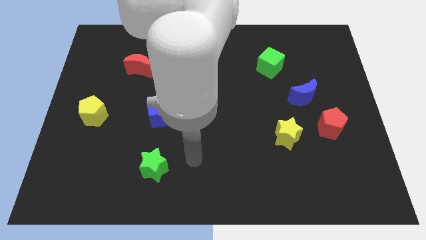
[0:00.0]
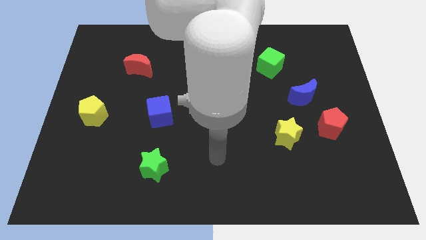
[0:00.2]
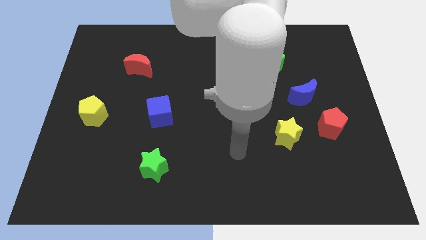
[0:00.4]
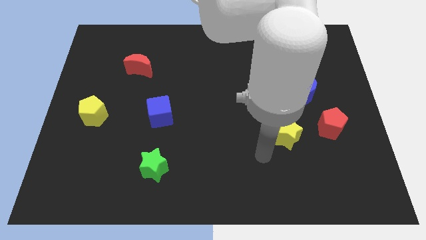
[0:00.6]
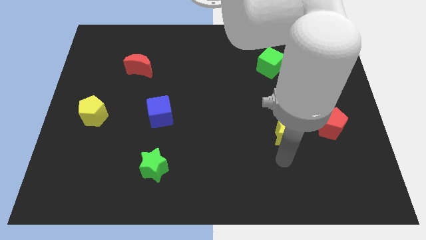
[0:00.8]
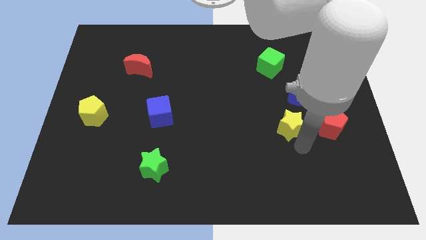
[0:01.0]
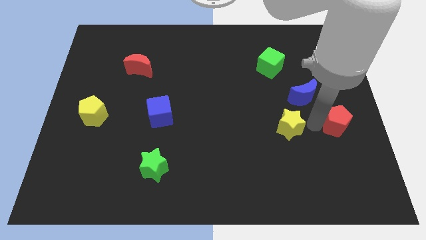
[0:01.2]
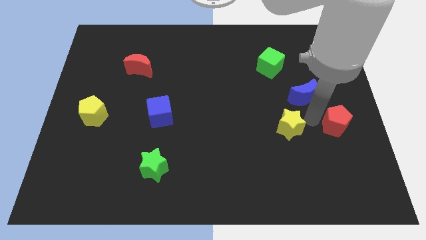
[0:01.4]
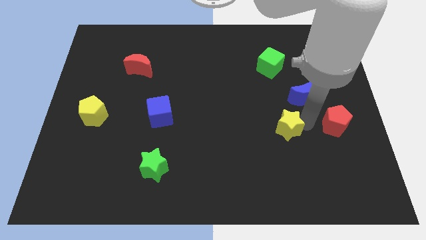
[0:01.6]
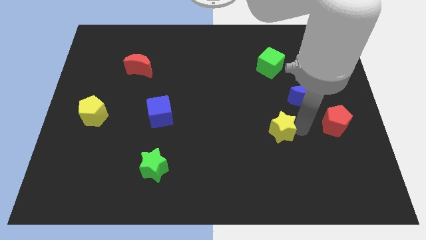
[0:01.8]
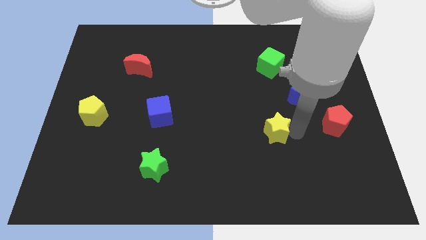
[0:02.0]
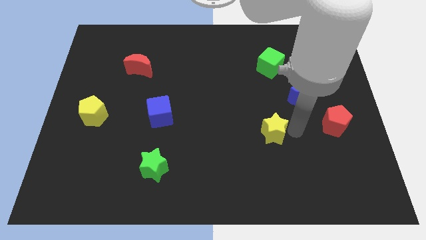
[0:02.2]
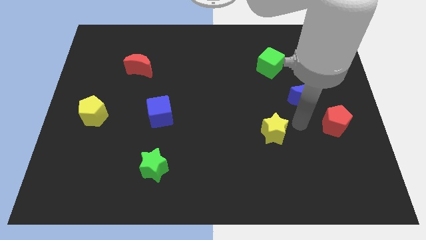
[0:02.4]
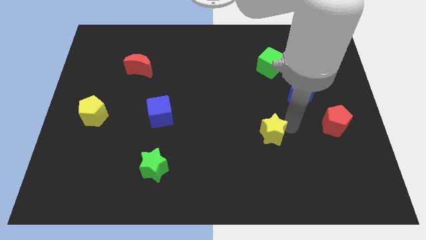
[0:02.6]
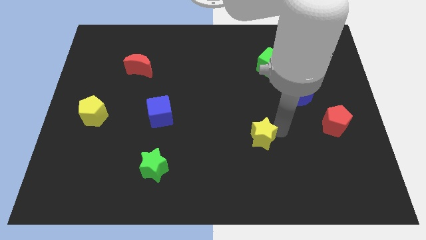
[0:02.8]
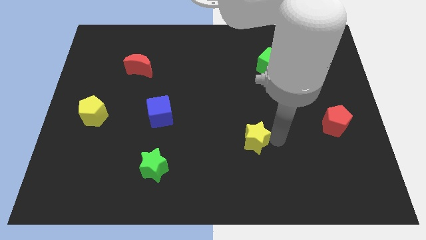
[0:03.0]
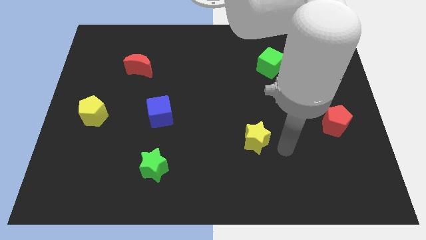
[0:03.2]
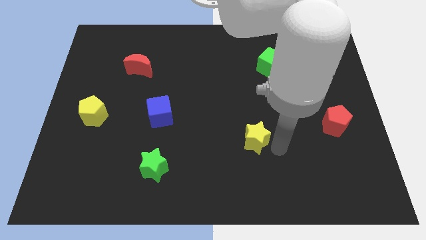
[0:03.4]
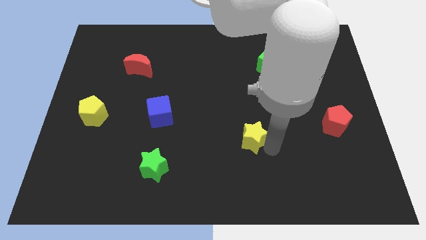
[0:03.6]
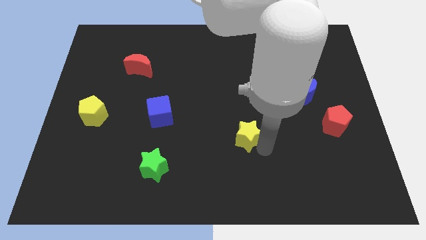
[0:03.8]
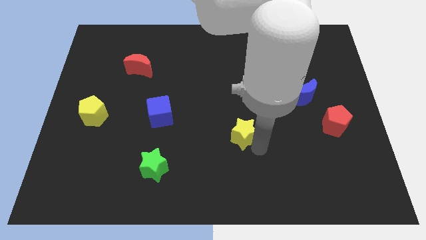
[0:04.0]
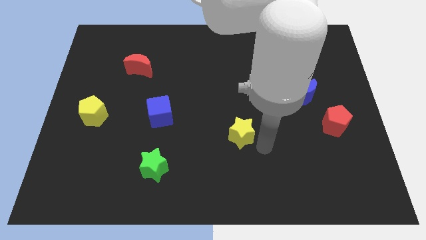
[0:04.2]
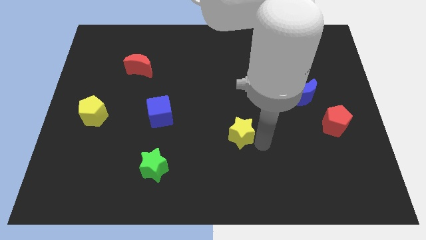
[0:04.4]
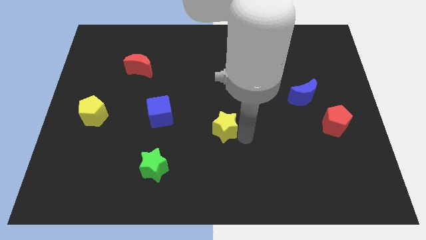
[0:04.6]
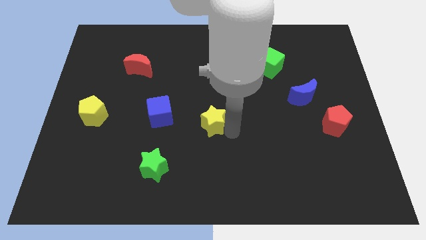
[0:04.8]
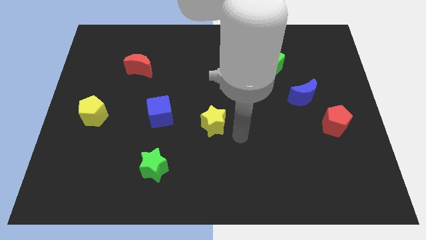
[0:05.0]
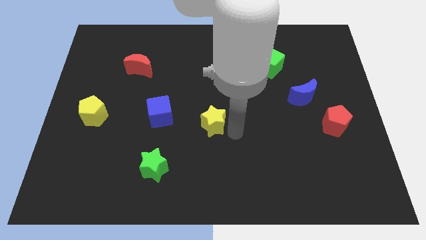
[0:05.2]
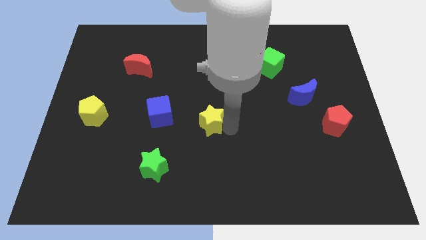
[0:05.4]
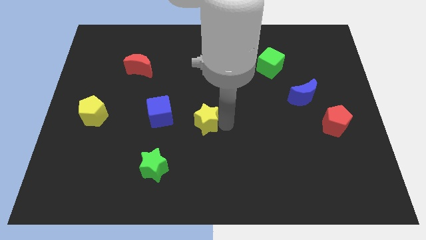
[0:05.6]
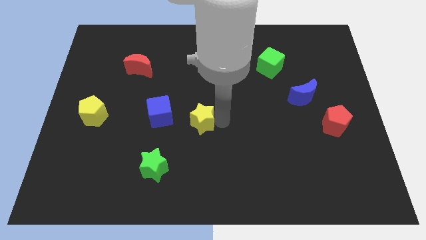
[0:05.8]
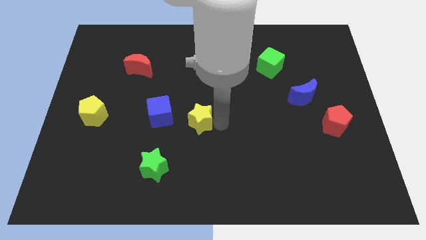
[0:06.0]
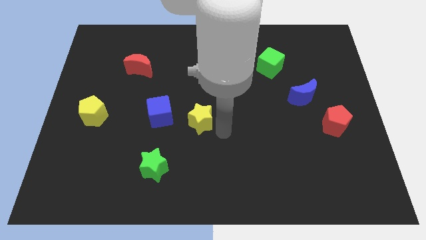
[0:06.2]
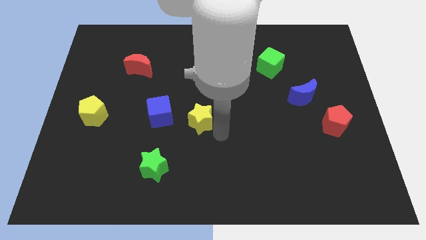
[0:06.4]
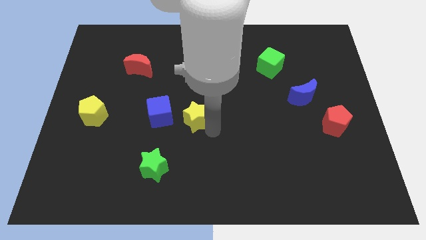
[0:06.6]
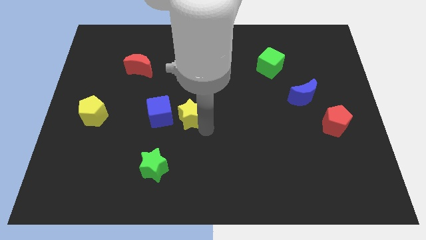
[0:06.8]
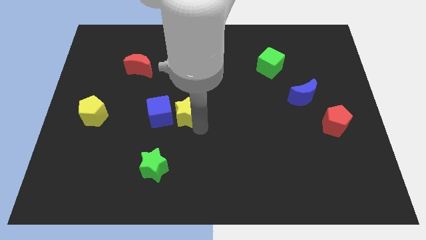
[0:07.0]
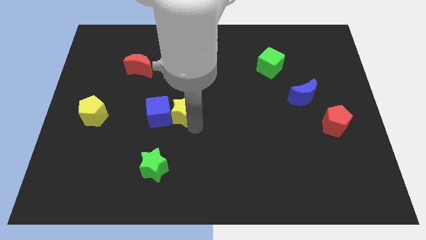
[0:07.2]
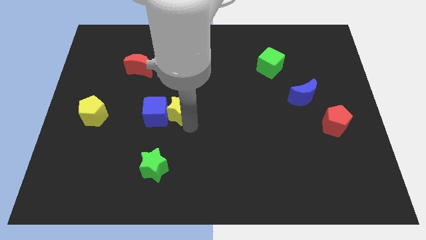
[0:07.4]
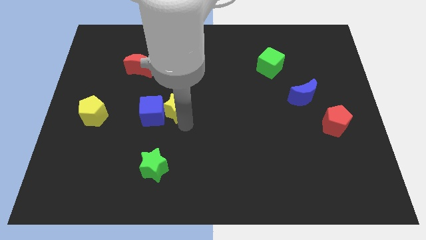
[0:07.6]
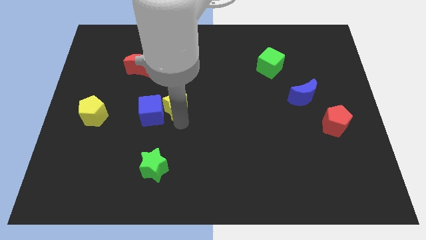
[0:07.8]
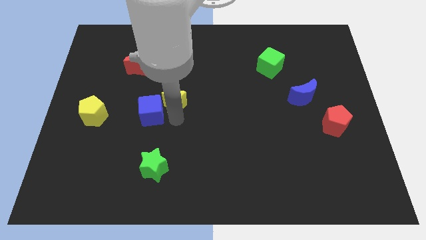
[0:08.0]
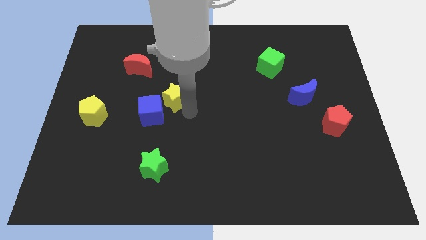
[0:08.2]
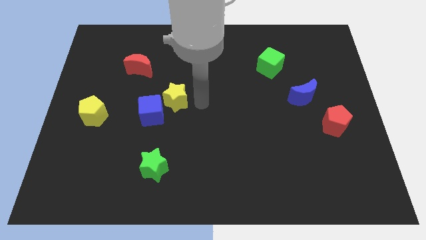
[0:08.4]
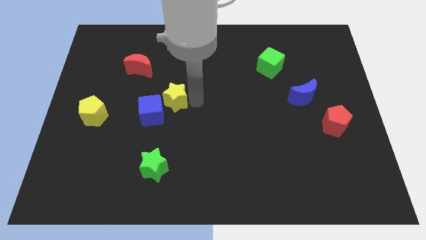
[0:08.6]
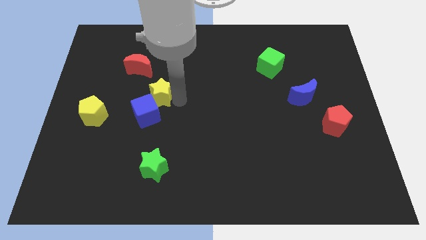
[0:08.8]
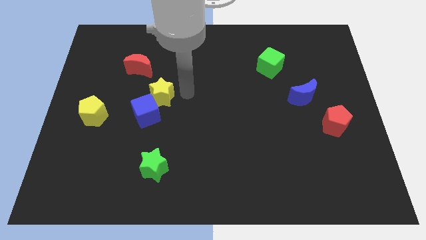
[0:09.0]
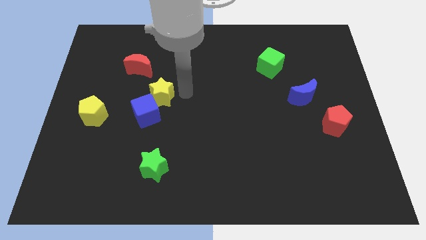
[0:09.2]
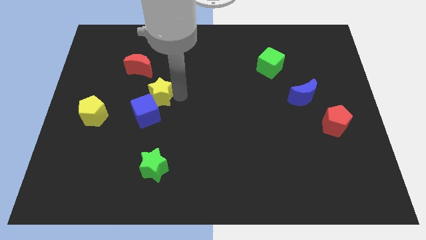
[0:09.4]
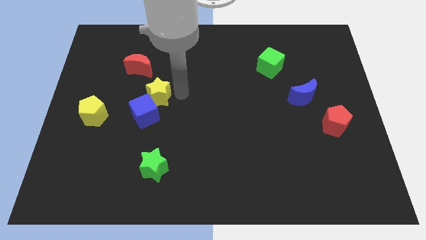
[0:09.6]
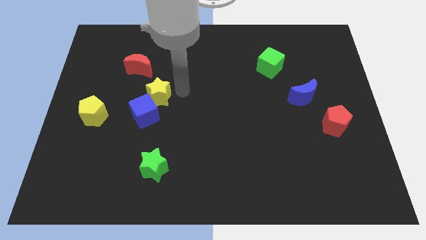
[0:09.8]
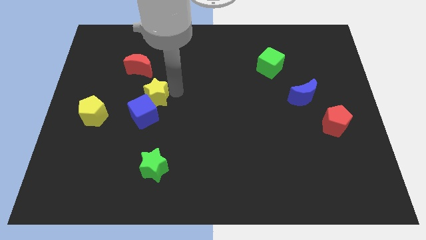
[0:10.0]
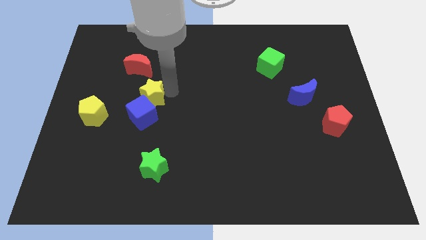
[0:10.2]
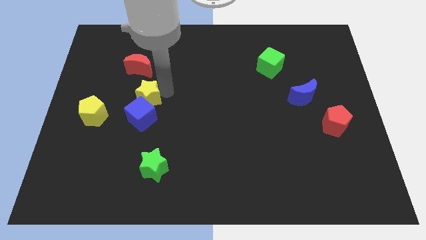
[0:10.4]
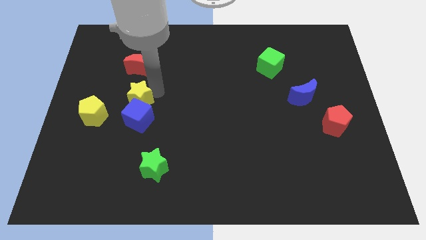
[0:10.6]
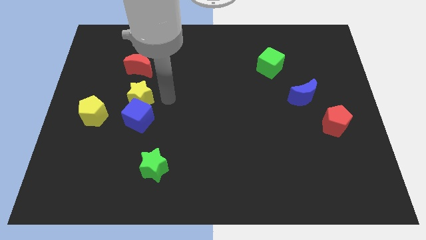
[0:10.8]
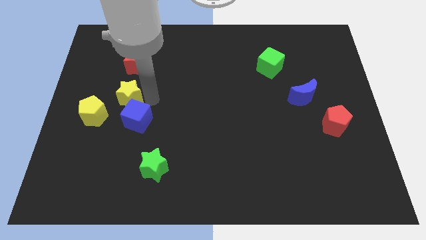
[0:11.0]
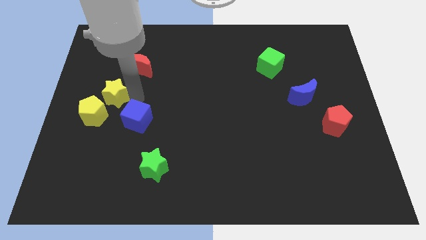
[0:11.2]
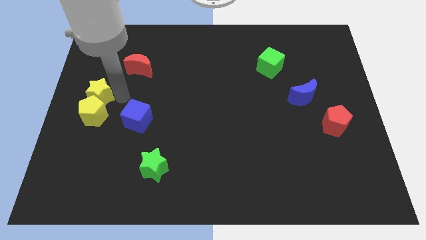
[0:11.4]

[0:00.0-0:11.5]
move the yellow star to the center left
